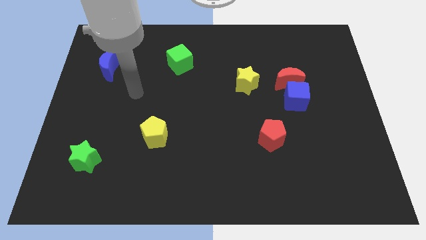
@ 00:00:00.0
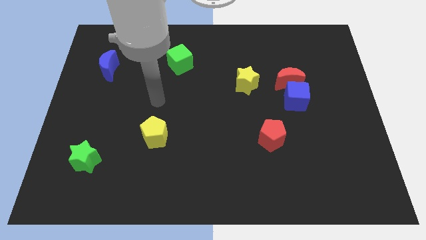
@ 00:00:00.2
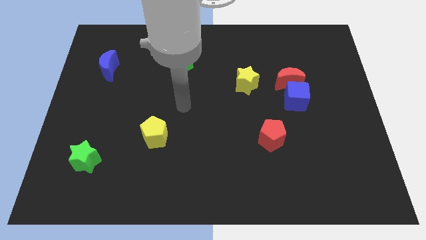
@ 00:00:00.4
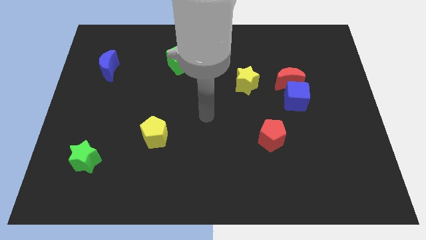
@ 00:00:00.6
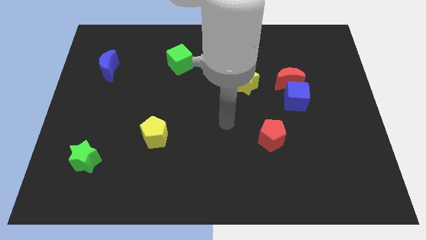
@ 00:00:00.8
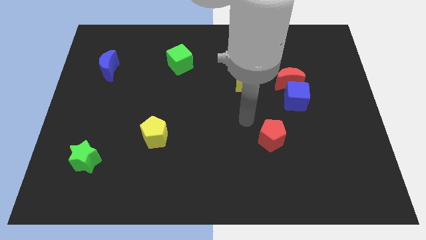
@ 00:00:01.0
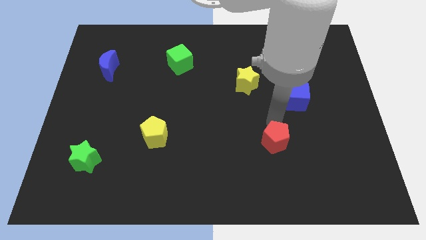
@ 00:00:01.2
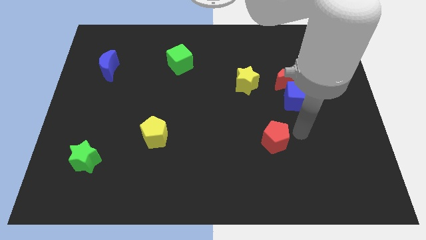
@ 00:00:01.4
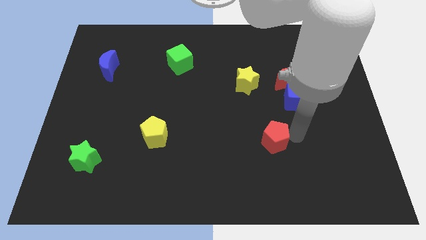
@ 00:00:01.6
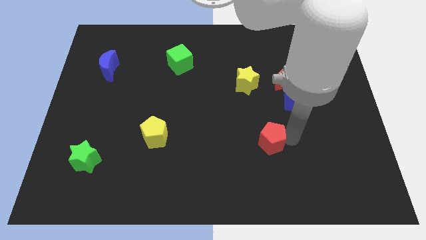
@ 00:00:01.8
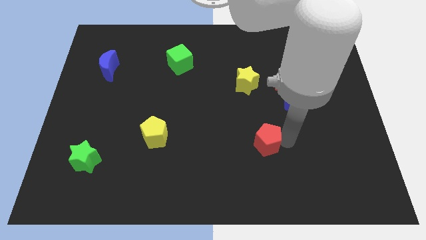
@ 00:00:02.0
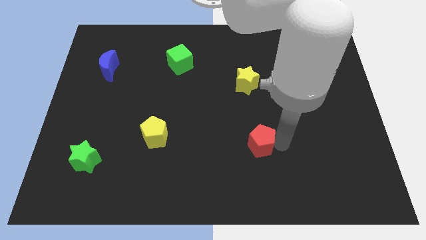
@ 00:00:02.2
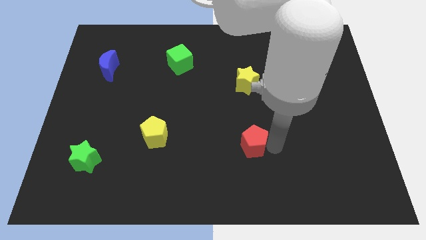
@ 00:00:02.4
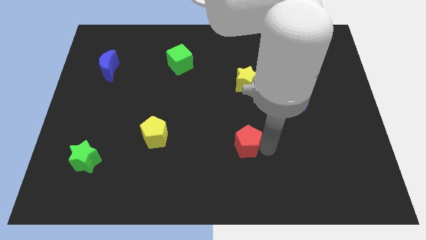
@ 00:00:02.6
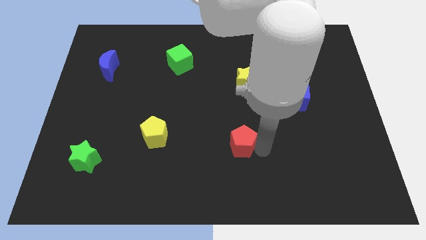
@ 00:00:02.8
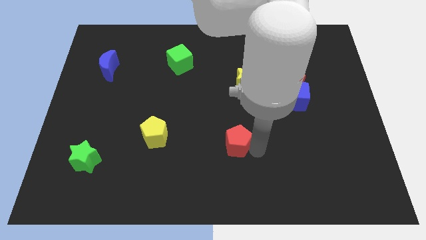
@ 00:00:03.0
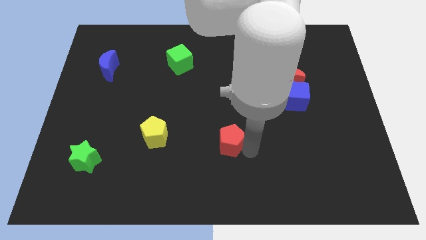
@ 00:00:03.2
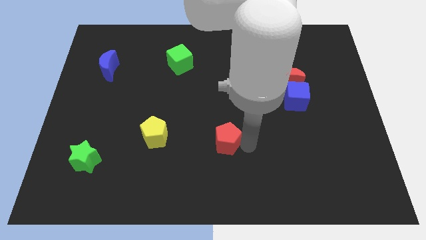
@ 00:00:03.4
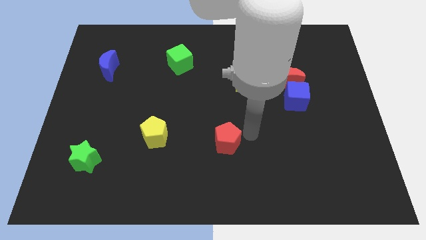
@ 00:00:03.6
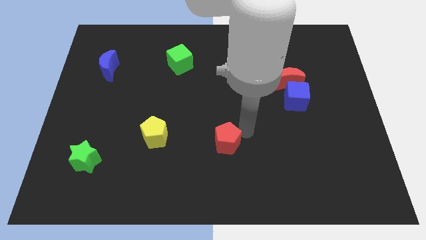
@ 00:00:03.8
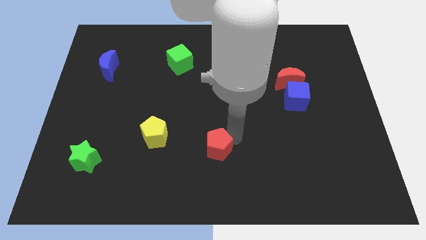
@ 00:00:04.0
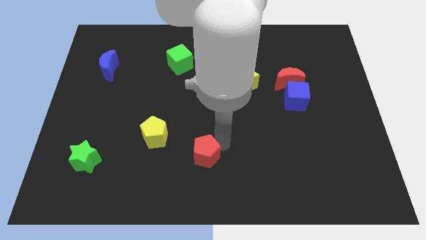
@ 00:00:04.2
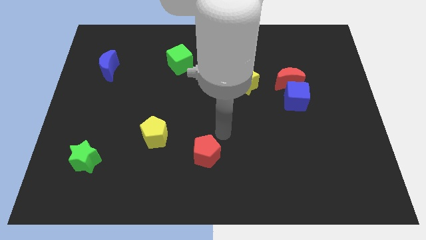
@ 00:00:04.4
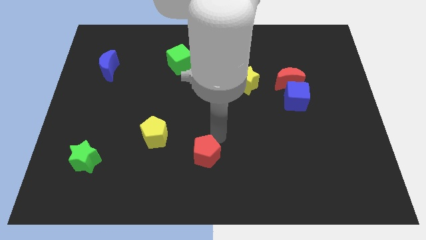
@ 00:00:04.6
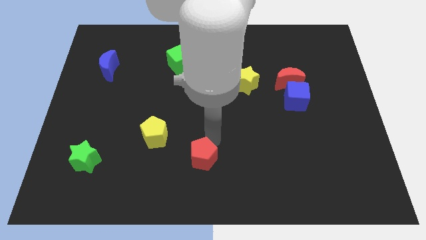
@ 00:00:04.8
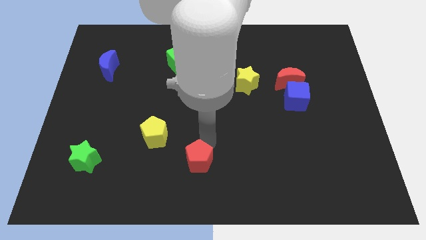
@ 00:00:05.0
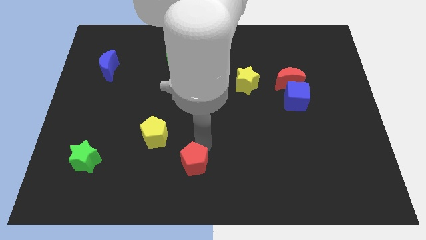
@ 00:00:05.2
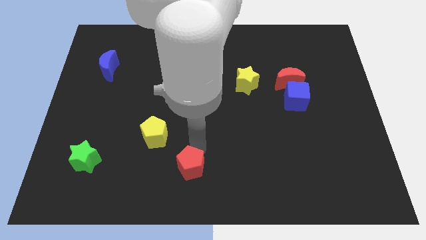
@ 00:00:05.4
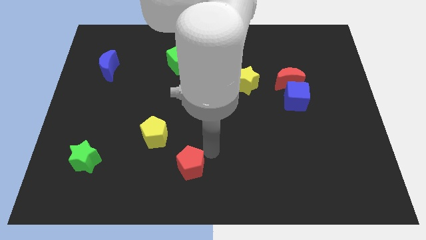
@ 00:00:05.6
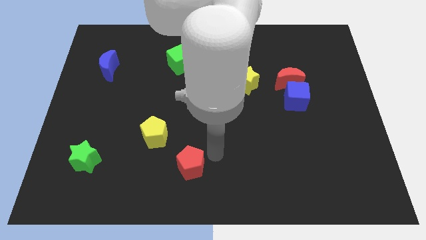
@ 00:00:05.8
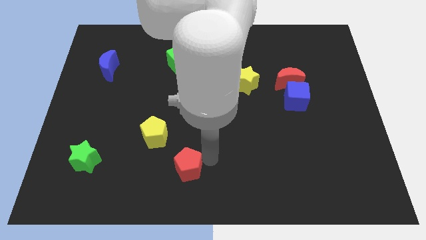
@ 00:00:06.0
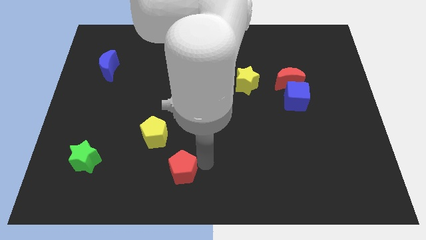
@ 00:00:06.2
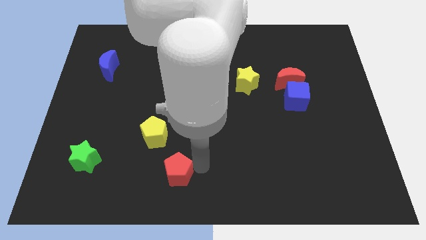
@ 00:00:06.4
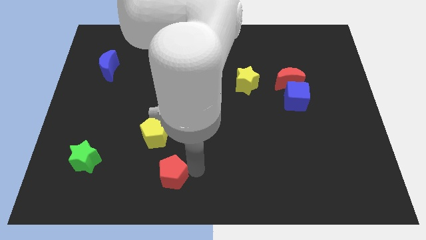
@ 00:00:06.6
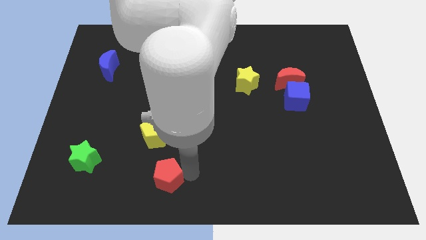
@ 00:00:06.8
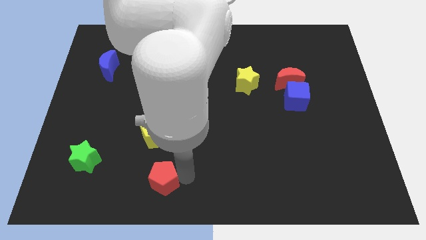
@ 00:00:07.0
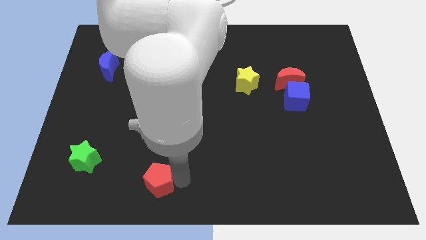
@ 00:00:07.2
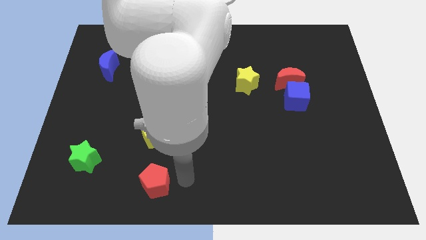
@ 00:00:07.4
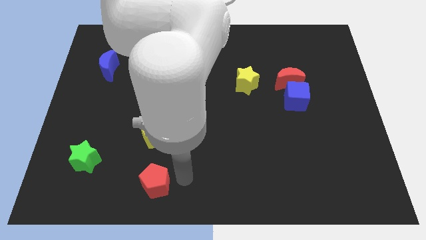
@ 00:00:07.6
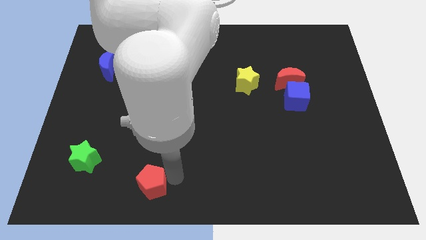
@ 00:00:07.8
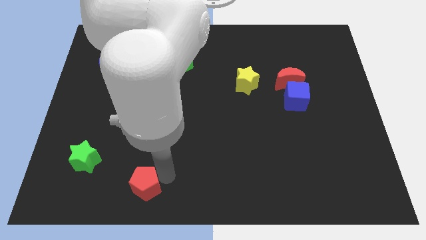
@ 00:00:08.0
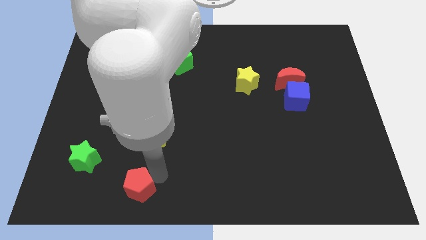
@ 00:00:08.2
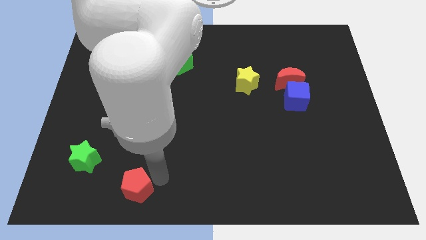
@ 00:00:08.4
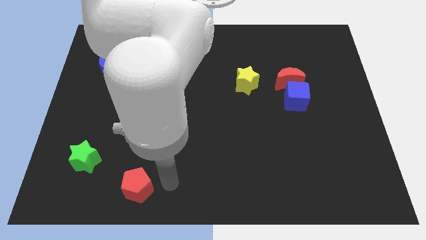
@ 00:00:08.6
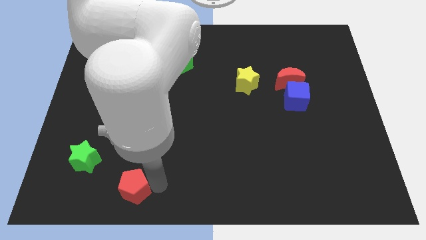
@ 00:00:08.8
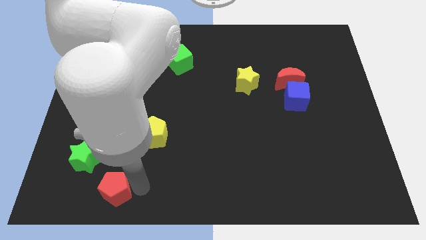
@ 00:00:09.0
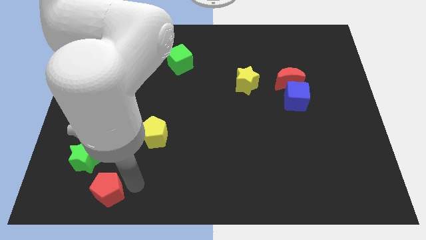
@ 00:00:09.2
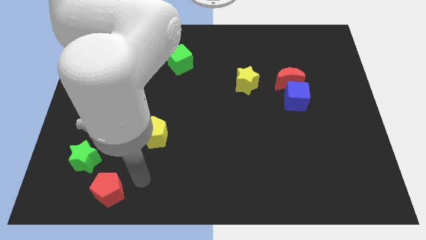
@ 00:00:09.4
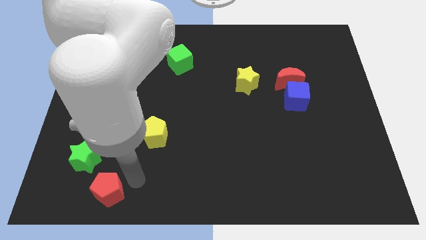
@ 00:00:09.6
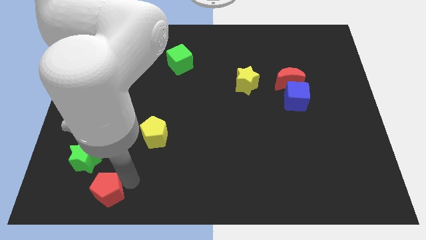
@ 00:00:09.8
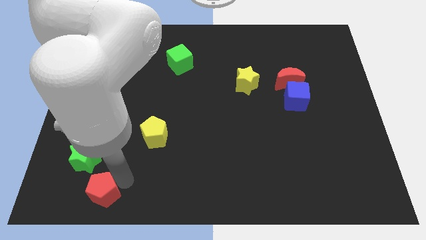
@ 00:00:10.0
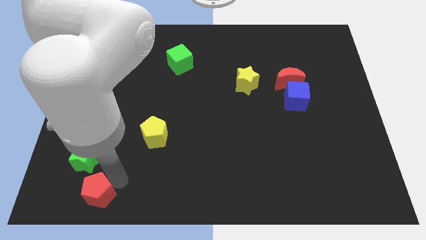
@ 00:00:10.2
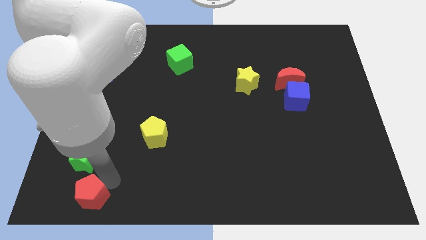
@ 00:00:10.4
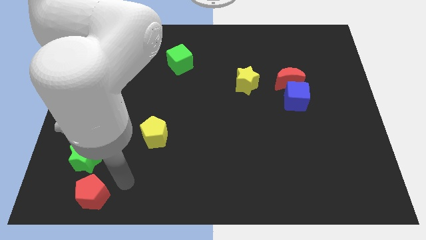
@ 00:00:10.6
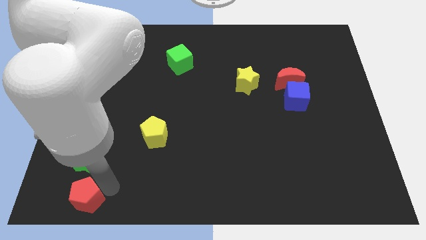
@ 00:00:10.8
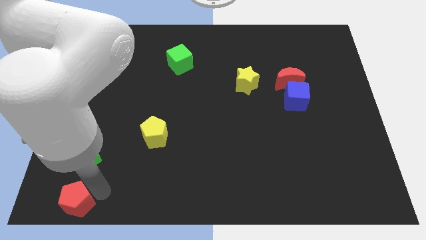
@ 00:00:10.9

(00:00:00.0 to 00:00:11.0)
slide the red pentagon to the bottom left corner

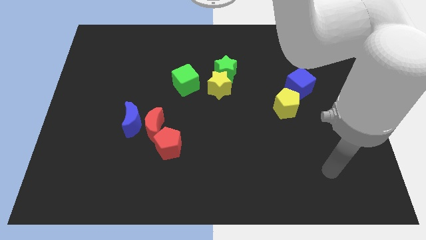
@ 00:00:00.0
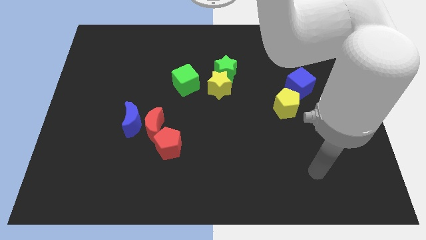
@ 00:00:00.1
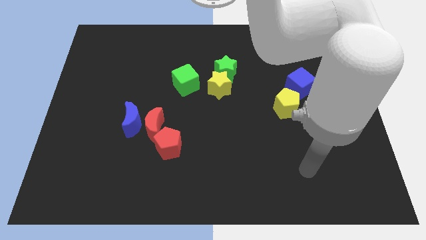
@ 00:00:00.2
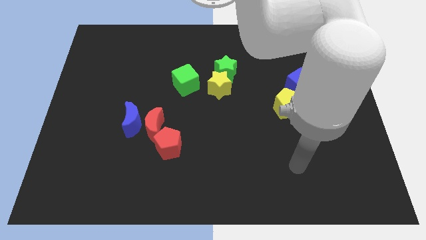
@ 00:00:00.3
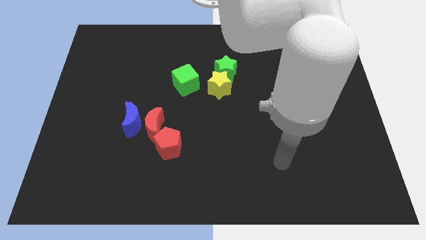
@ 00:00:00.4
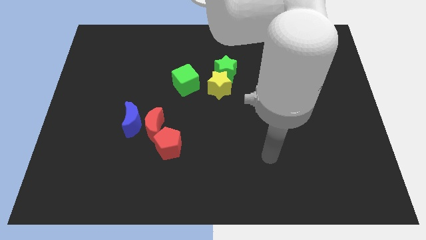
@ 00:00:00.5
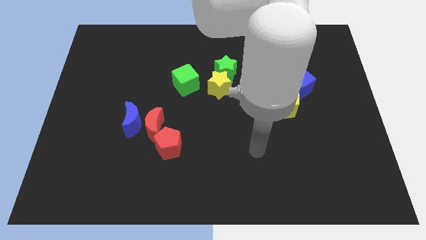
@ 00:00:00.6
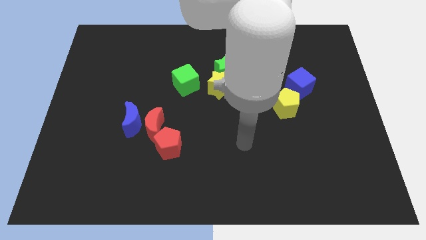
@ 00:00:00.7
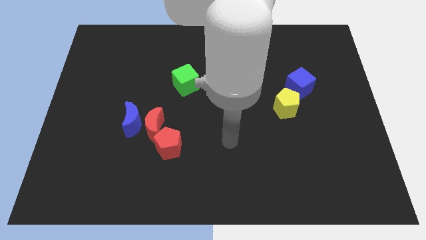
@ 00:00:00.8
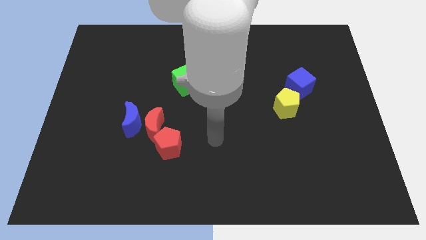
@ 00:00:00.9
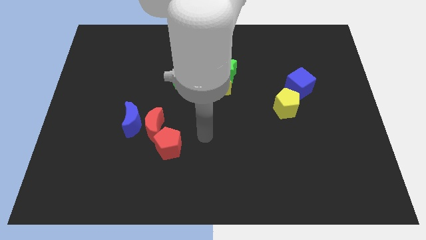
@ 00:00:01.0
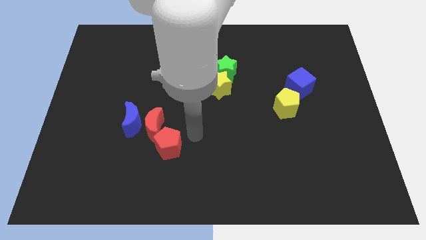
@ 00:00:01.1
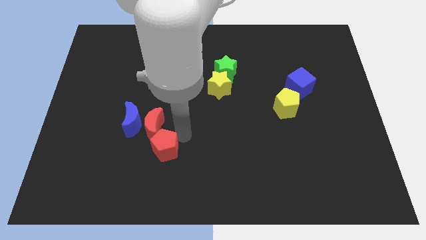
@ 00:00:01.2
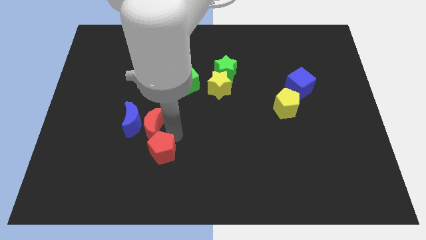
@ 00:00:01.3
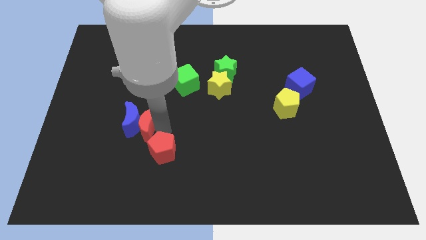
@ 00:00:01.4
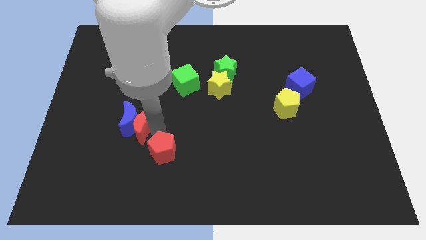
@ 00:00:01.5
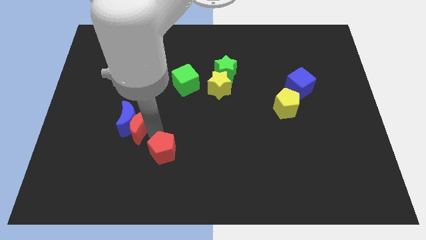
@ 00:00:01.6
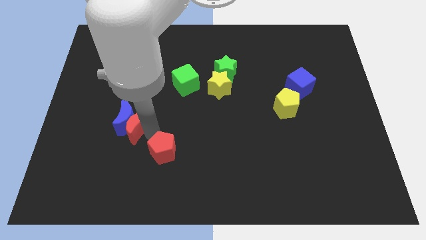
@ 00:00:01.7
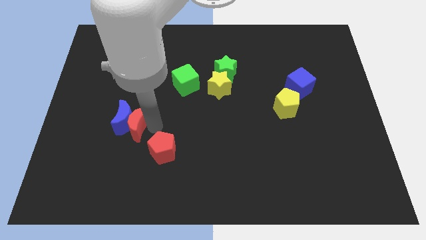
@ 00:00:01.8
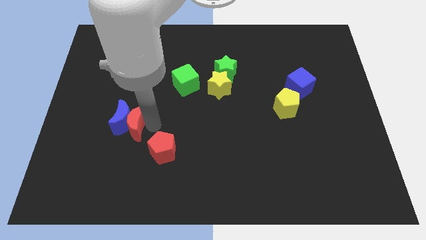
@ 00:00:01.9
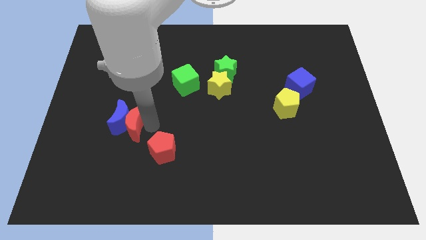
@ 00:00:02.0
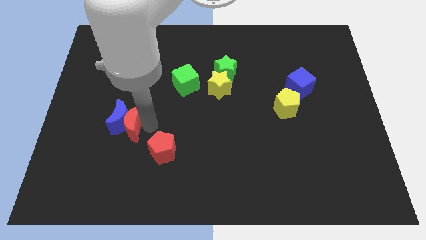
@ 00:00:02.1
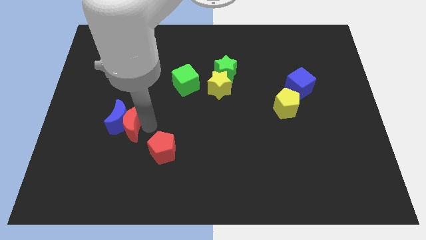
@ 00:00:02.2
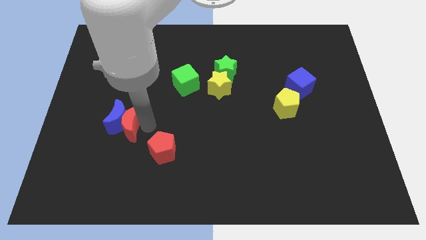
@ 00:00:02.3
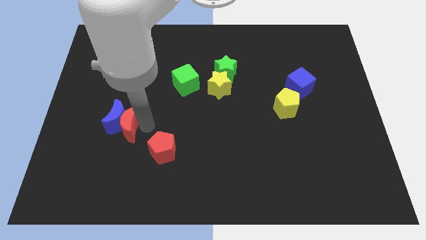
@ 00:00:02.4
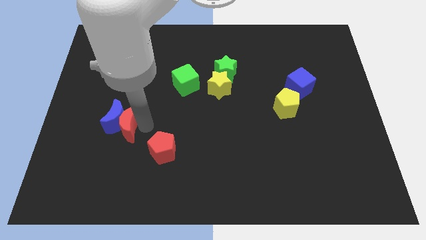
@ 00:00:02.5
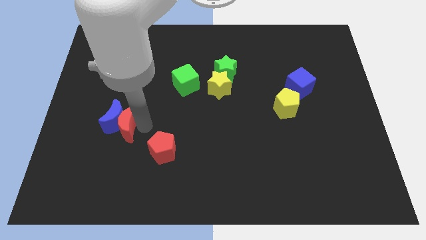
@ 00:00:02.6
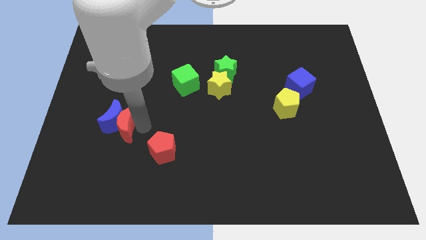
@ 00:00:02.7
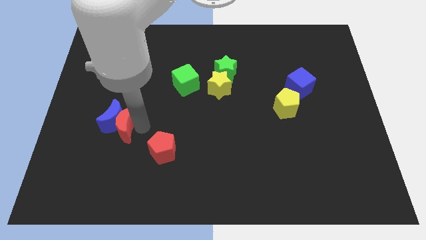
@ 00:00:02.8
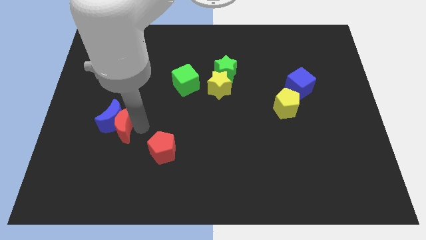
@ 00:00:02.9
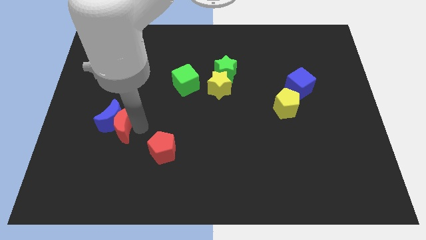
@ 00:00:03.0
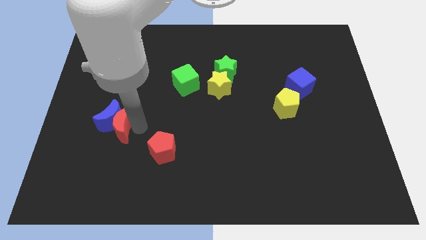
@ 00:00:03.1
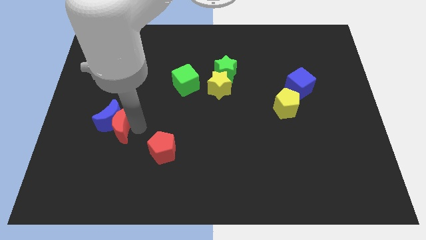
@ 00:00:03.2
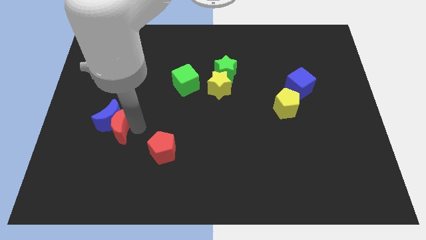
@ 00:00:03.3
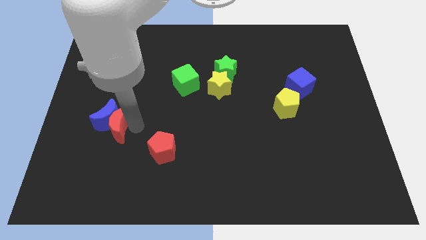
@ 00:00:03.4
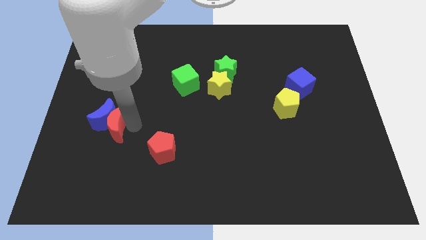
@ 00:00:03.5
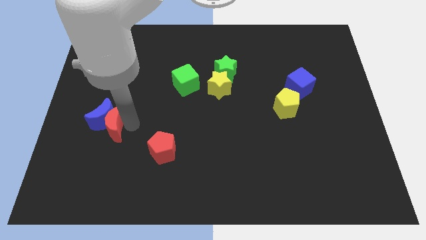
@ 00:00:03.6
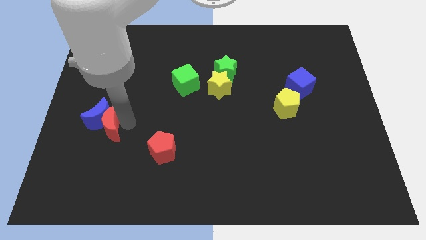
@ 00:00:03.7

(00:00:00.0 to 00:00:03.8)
move the blue moon to the left side
